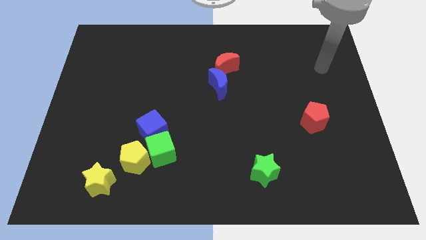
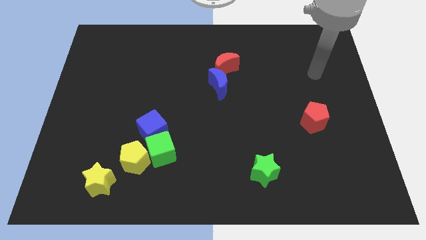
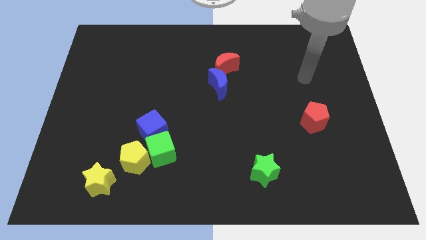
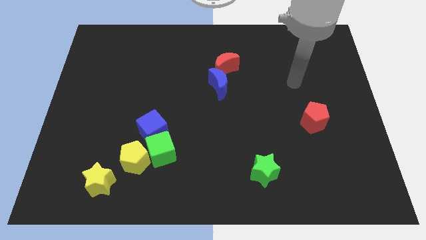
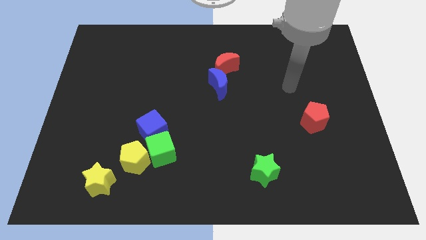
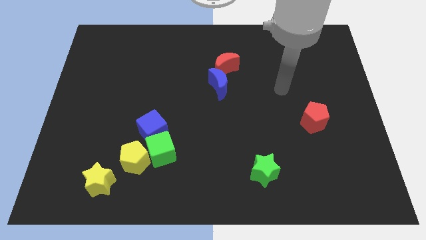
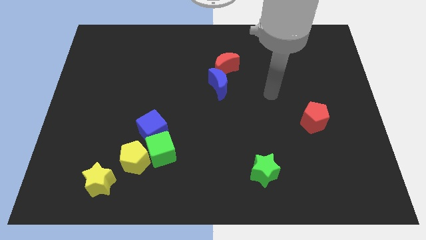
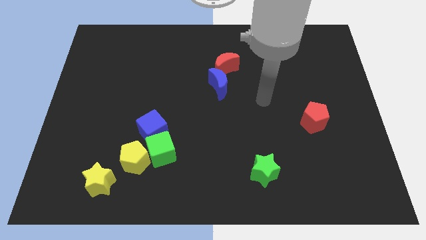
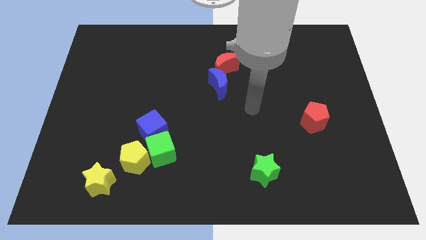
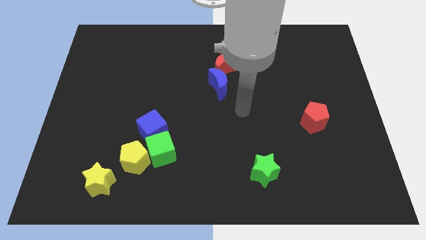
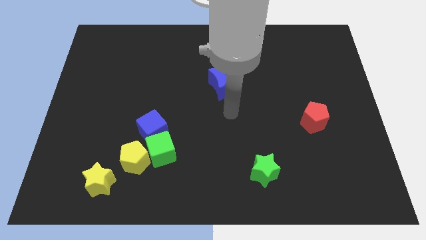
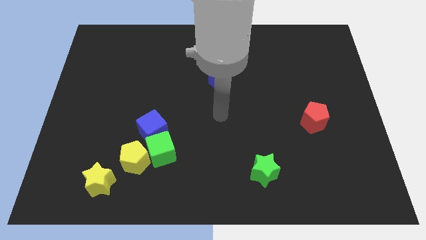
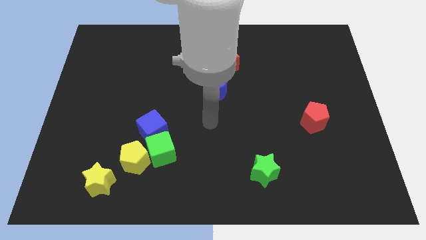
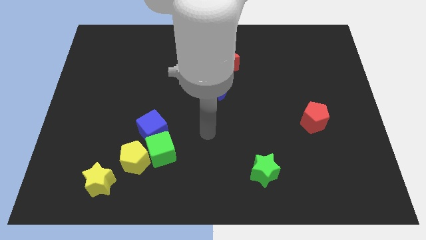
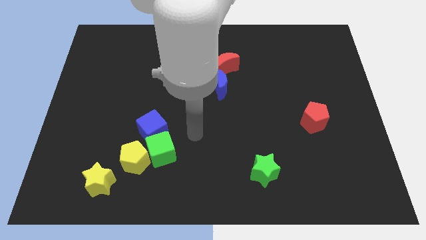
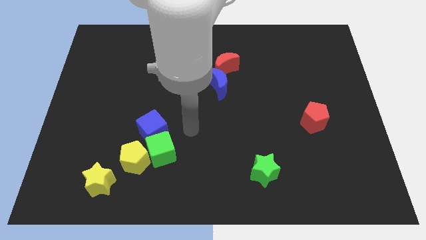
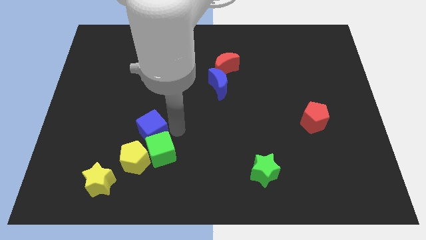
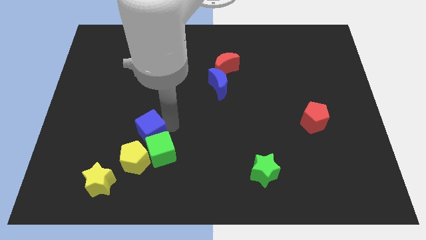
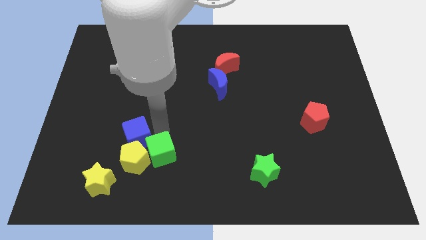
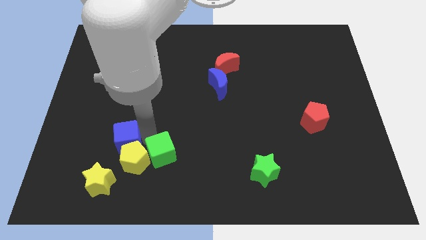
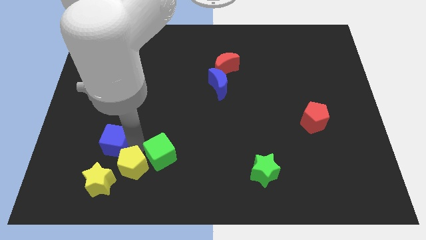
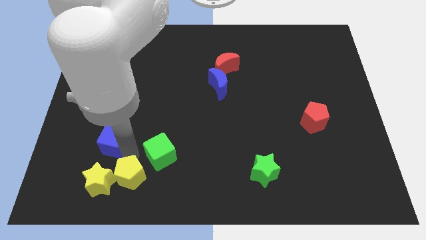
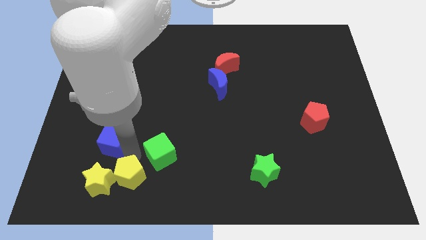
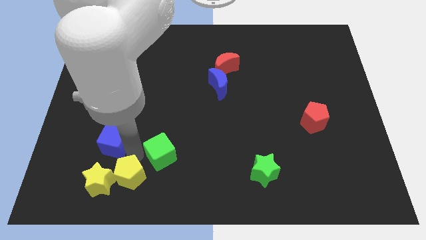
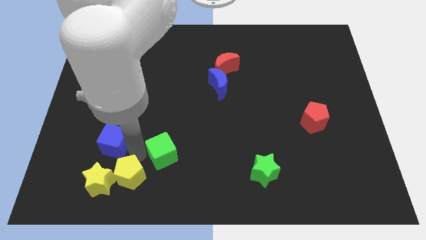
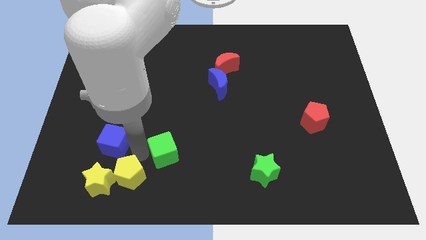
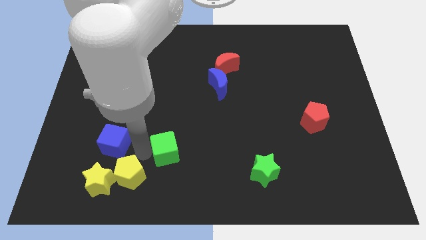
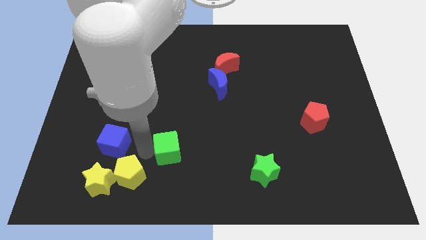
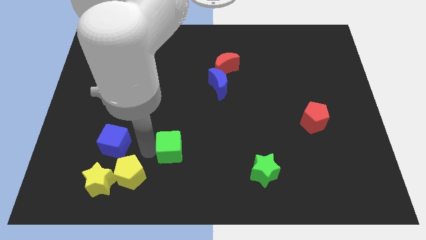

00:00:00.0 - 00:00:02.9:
pull the green cube apart from the yellow pentagon and blue cube

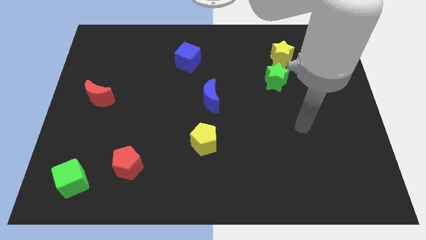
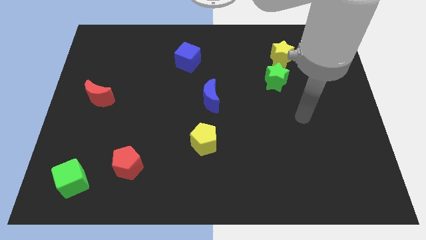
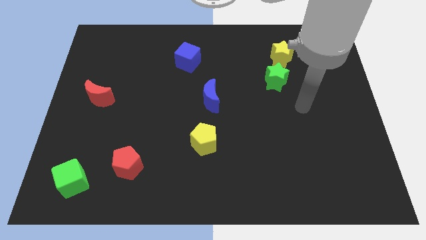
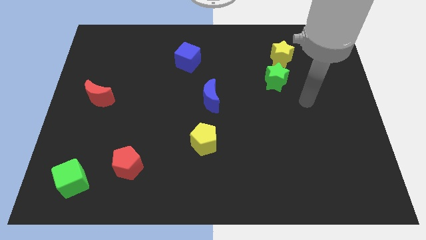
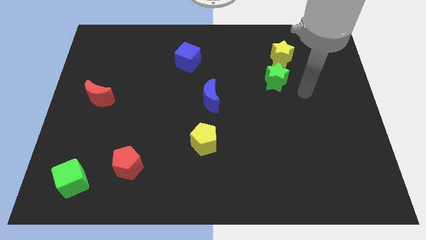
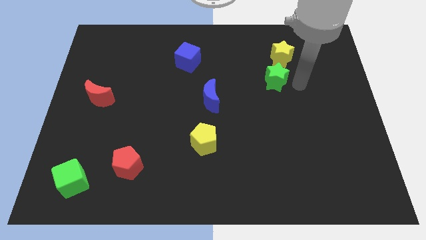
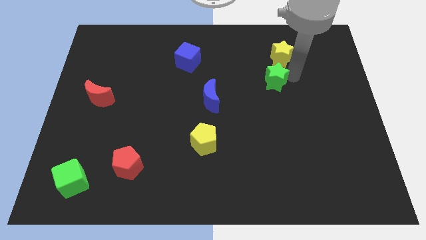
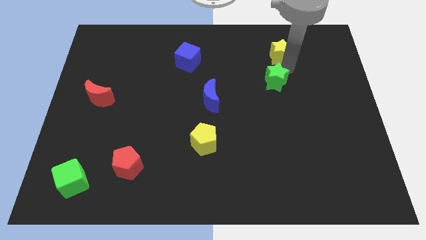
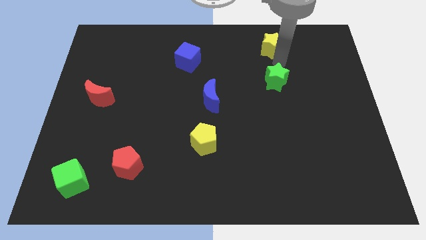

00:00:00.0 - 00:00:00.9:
move the green star away from the yellow star

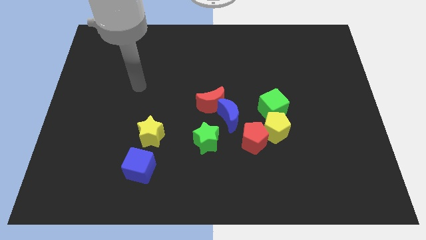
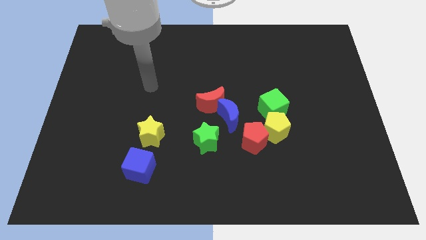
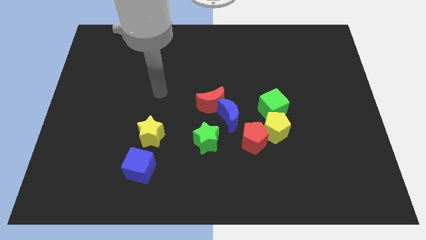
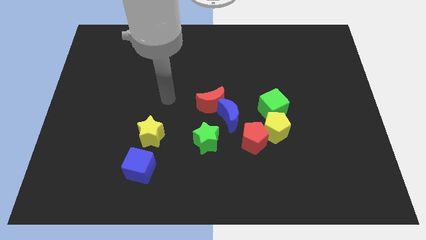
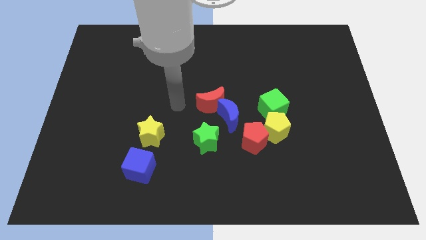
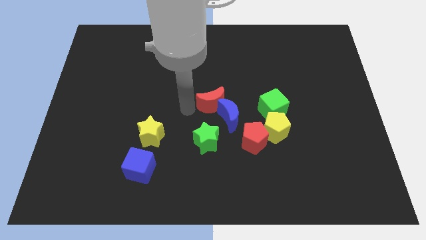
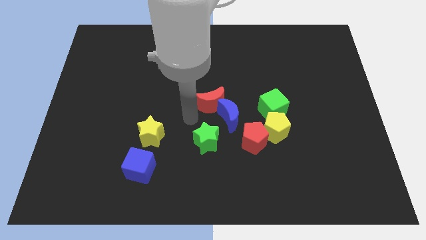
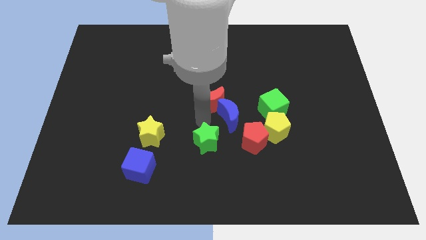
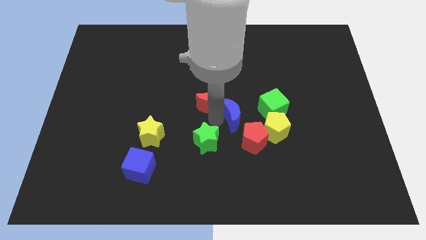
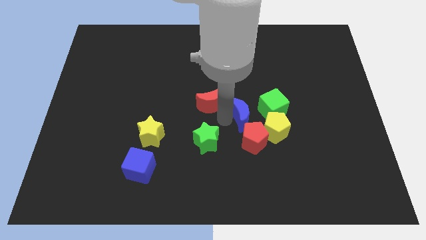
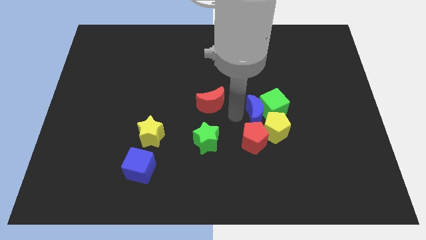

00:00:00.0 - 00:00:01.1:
separate the red moon from the blue moon

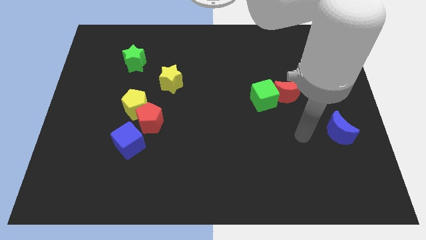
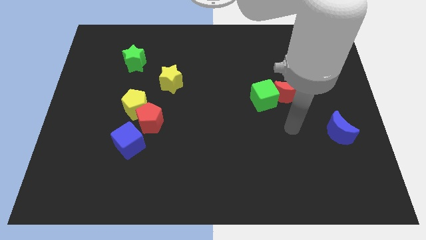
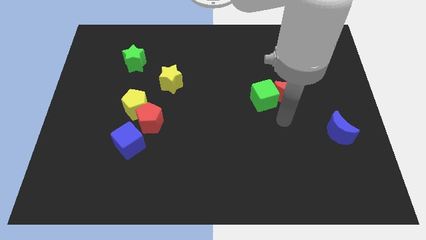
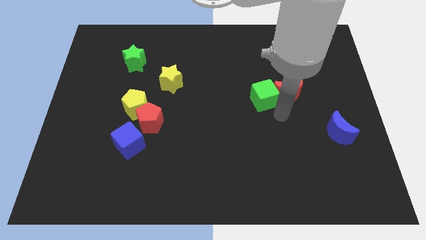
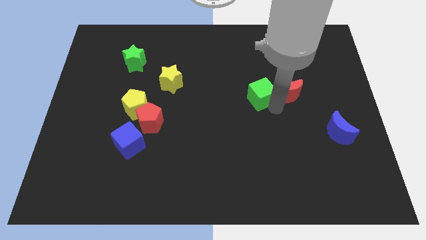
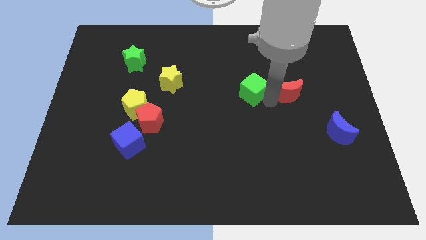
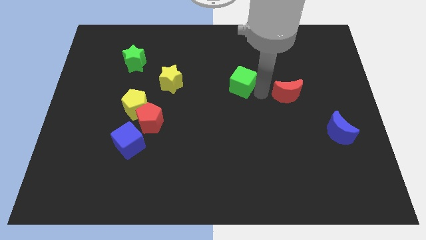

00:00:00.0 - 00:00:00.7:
move the red moon away from the green cube

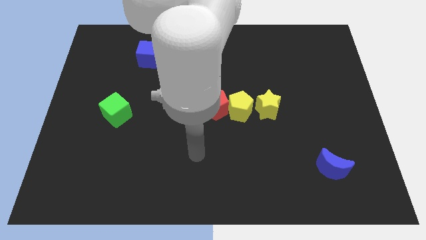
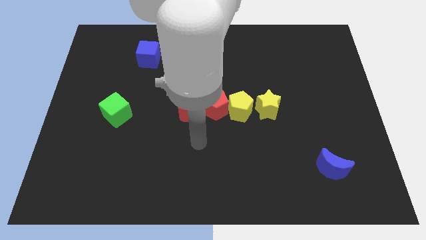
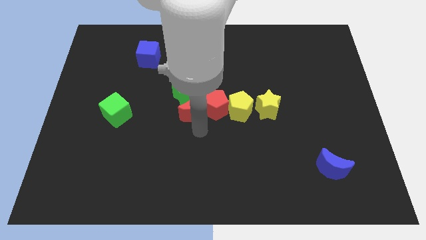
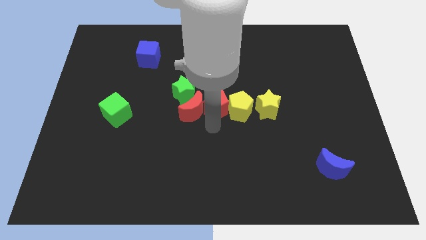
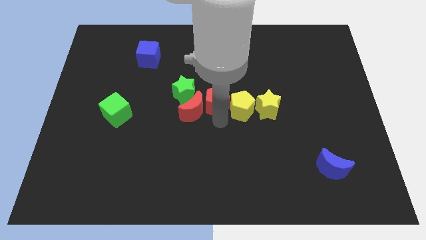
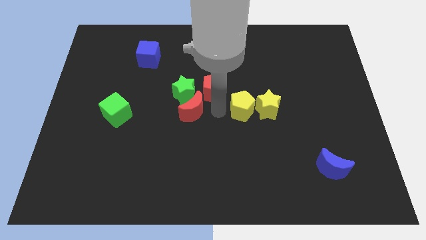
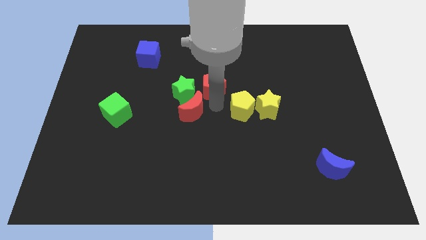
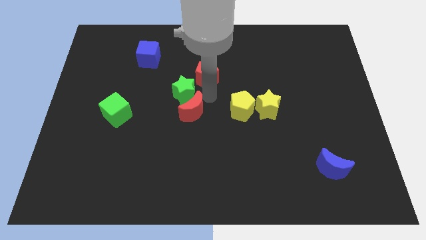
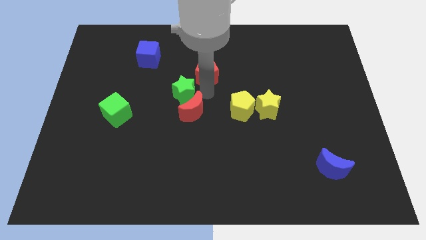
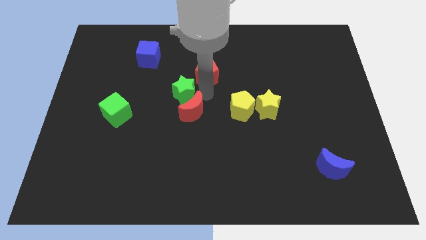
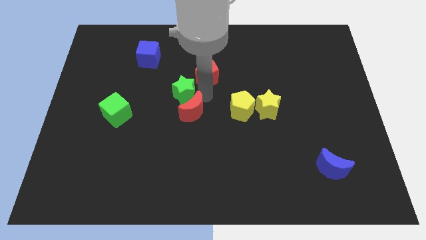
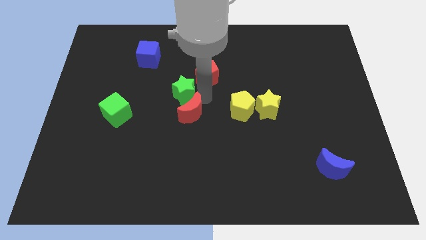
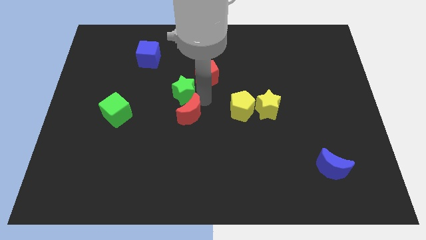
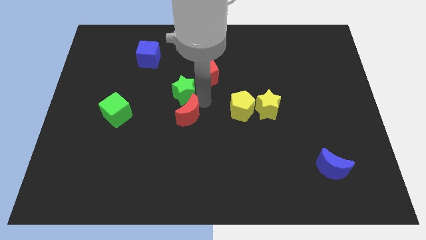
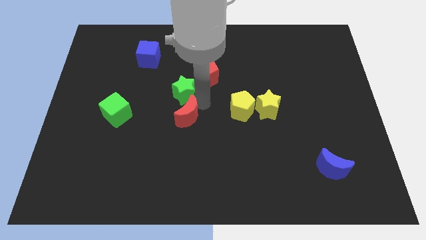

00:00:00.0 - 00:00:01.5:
separate the red moon from the red pentagon and green star

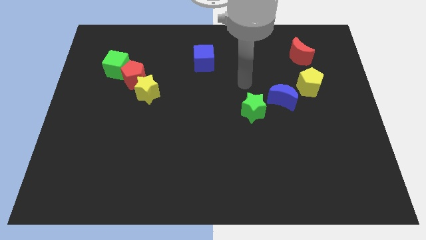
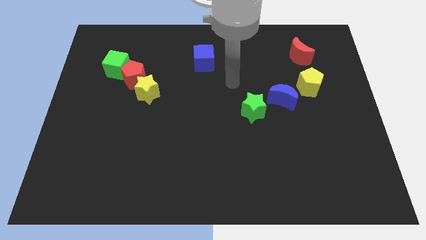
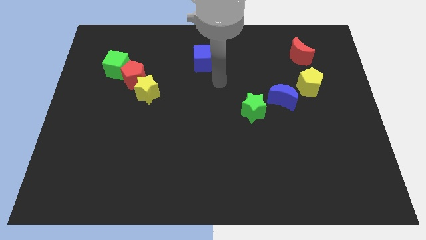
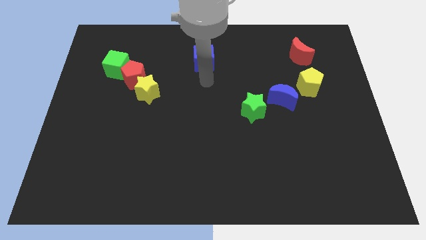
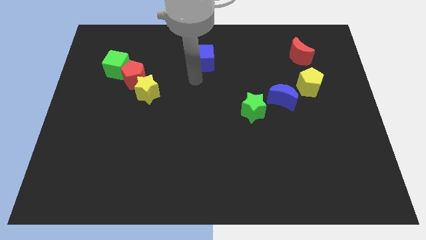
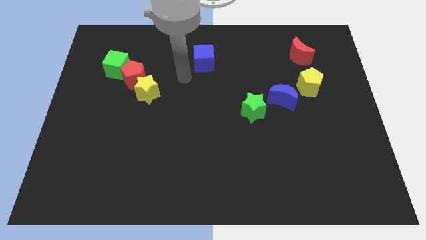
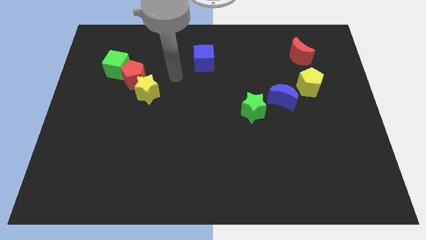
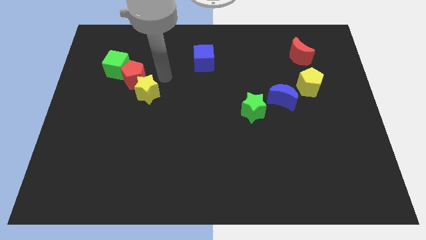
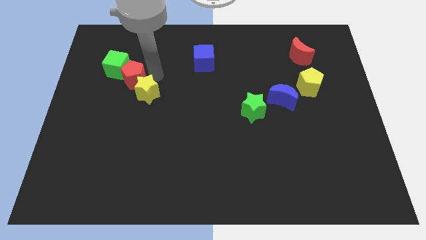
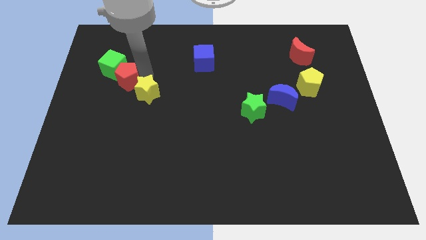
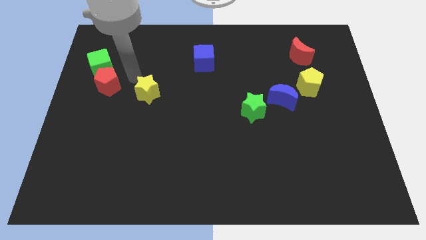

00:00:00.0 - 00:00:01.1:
move the yellow star away from the red pentagon

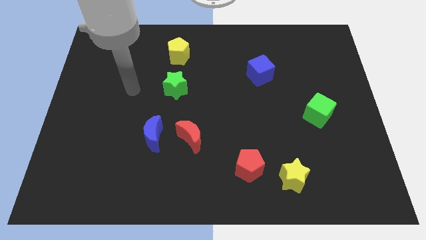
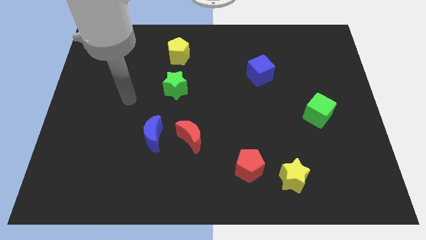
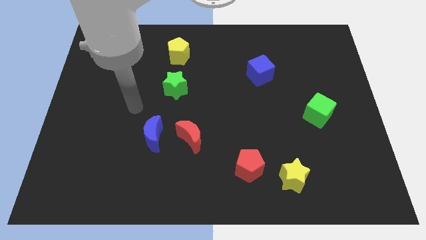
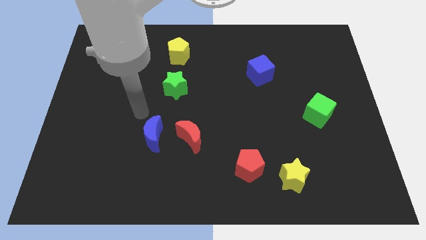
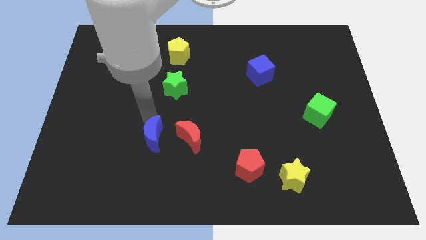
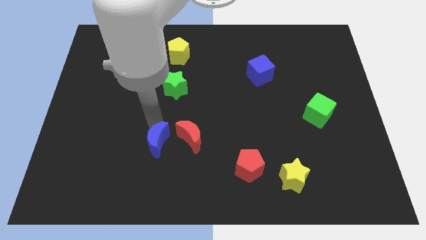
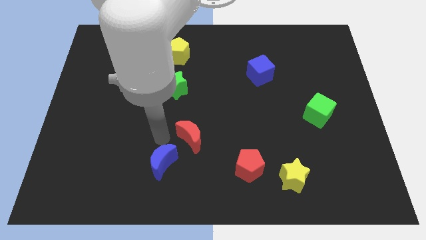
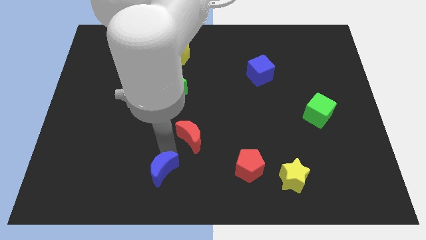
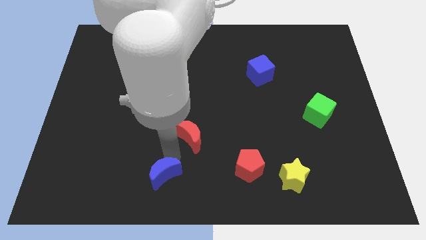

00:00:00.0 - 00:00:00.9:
pull the red moon apart from the blue moon

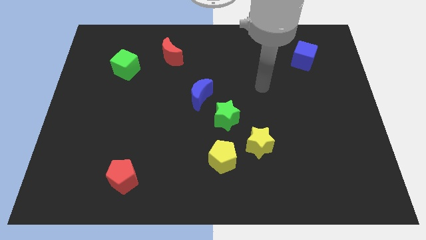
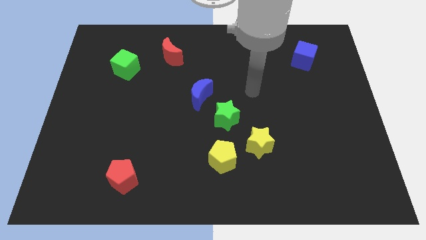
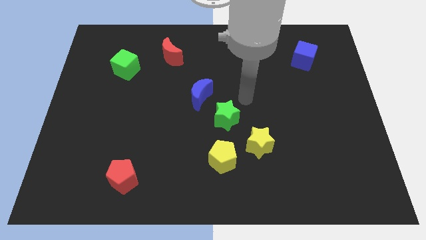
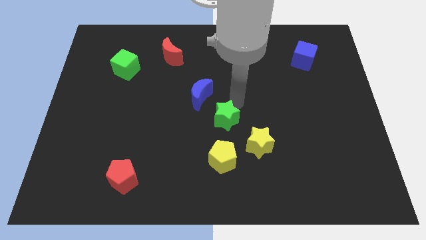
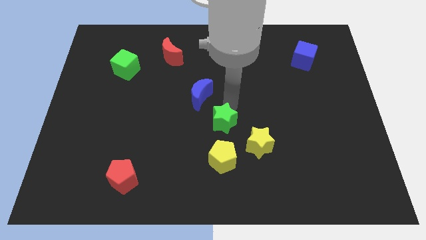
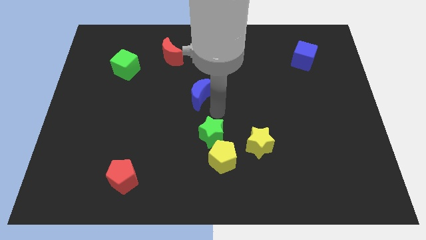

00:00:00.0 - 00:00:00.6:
pull the blue moon apart from the green star
